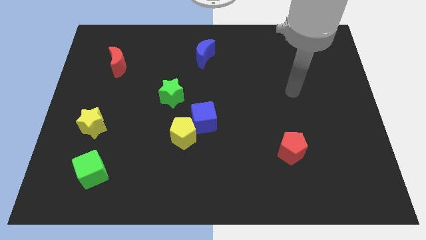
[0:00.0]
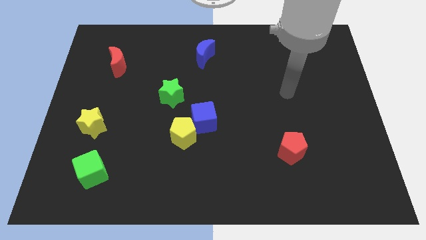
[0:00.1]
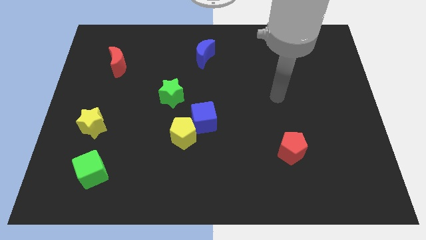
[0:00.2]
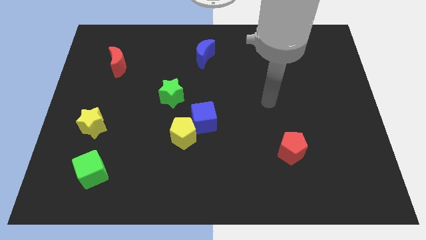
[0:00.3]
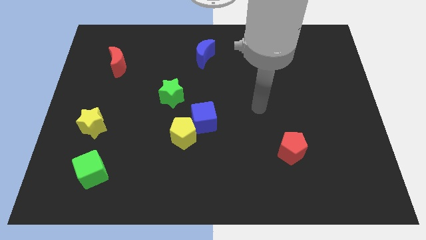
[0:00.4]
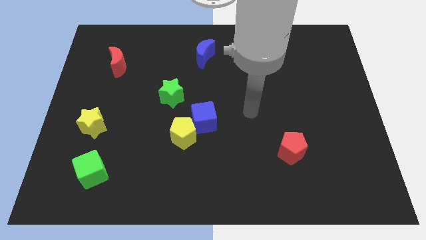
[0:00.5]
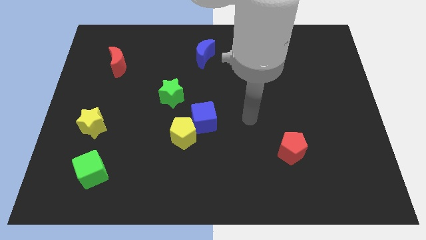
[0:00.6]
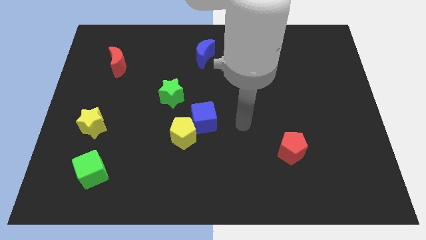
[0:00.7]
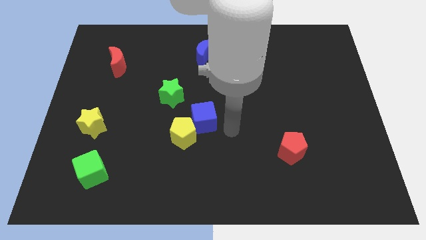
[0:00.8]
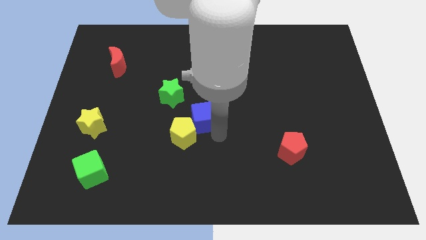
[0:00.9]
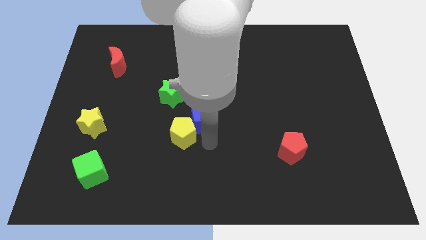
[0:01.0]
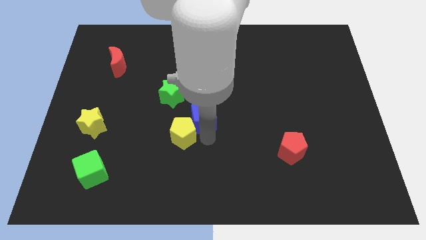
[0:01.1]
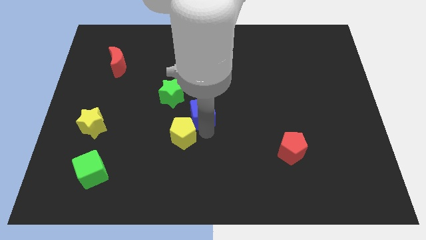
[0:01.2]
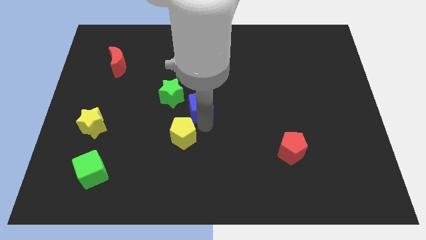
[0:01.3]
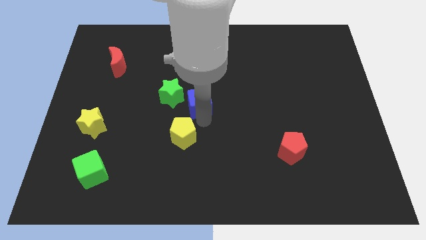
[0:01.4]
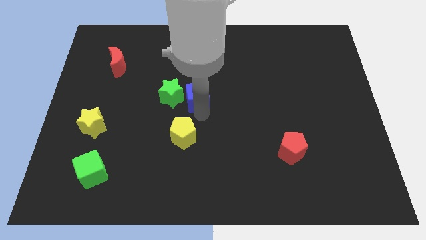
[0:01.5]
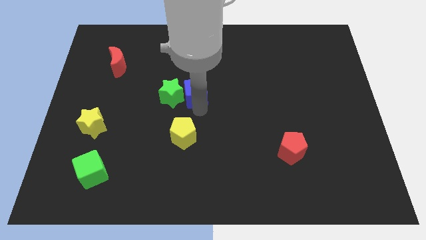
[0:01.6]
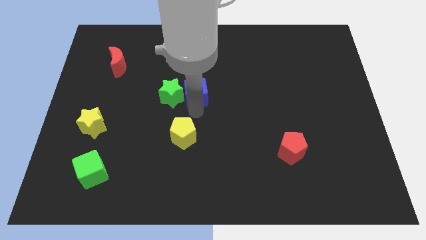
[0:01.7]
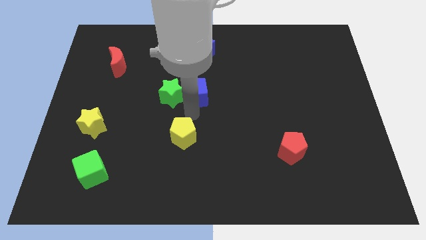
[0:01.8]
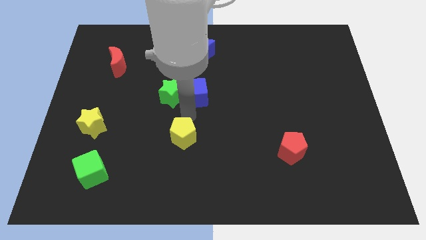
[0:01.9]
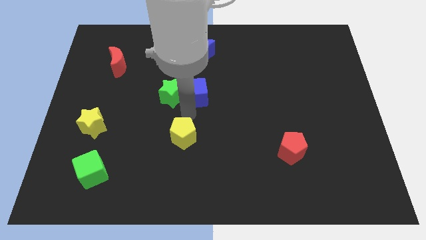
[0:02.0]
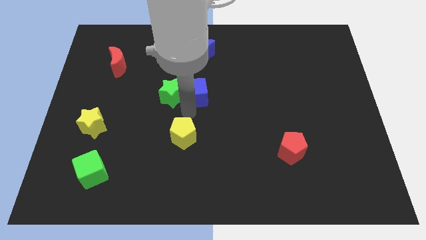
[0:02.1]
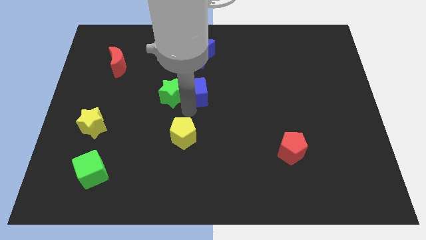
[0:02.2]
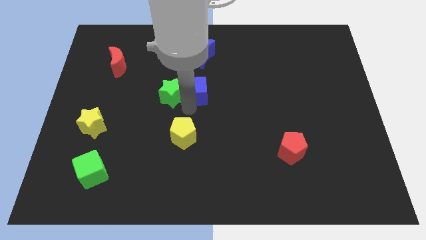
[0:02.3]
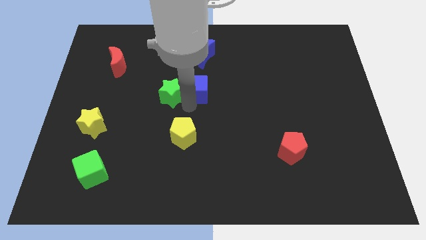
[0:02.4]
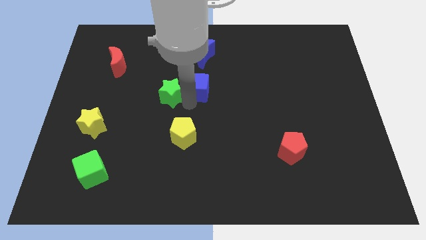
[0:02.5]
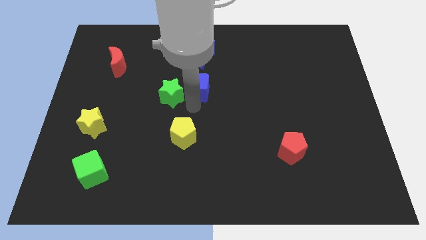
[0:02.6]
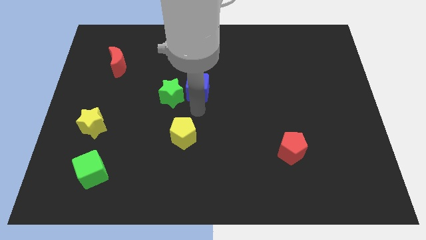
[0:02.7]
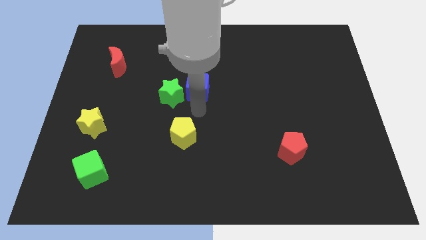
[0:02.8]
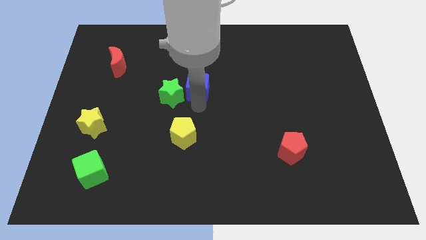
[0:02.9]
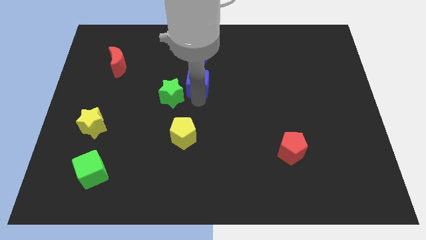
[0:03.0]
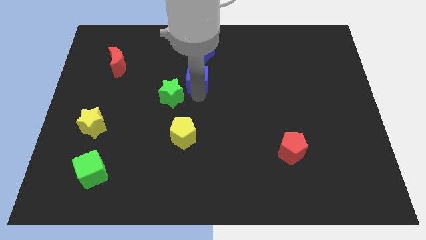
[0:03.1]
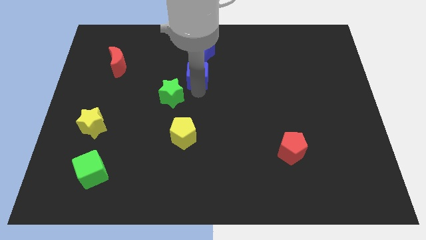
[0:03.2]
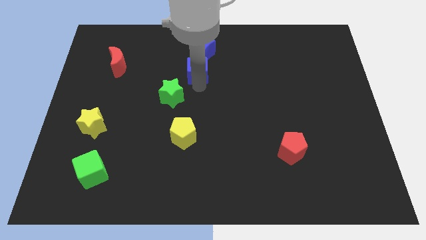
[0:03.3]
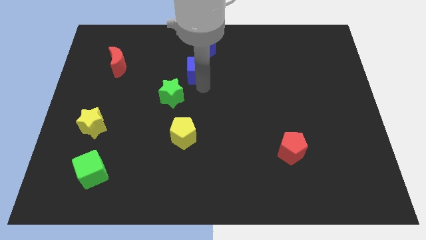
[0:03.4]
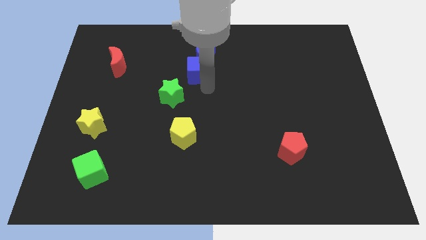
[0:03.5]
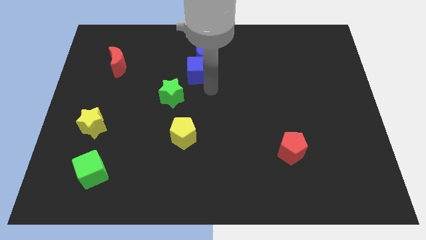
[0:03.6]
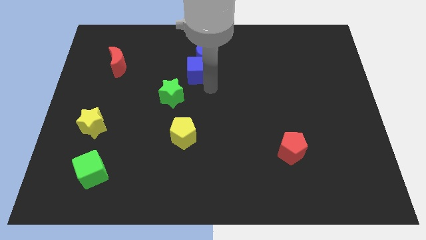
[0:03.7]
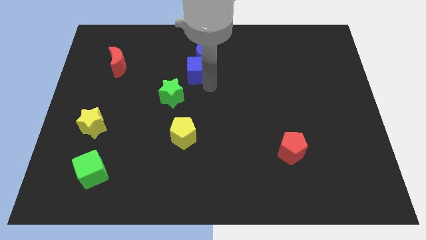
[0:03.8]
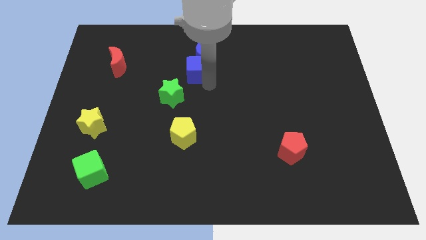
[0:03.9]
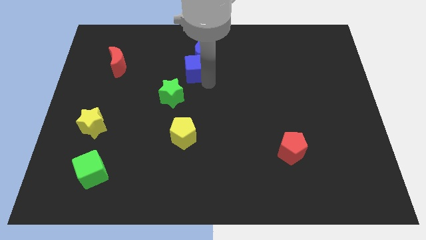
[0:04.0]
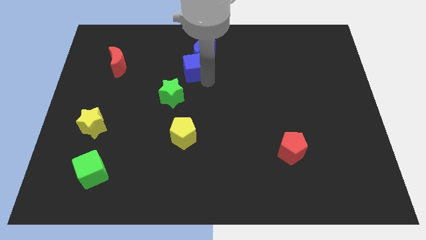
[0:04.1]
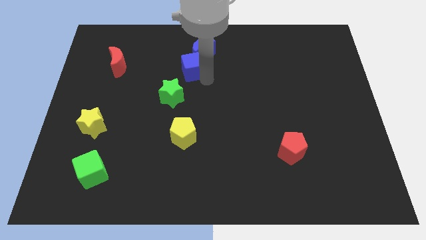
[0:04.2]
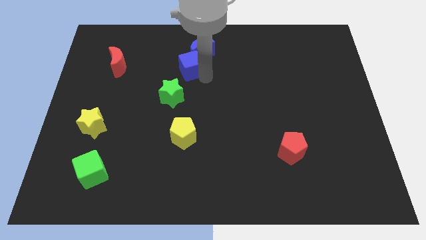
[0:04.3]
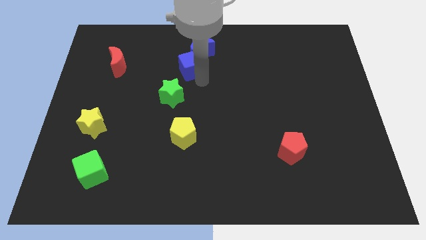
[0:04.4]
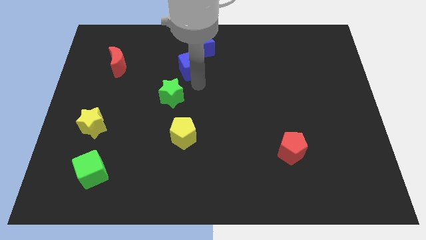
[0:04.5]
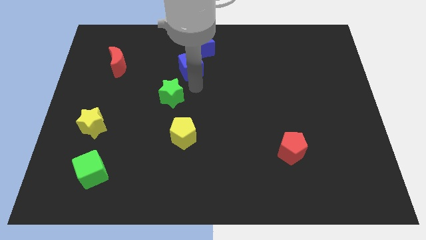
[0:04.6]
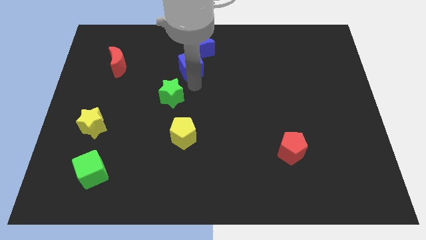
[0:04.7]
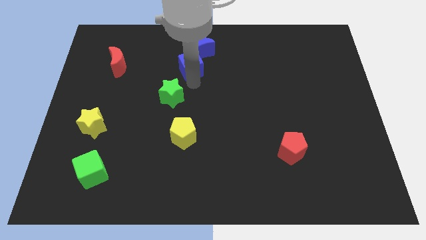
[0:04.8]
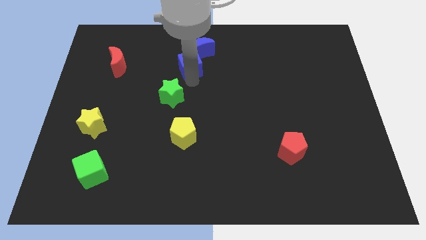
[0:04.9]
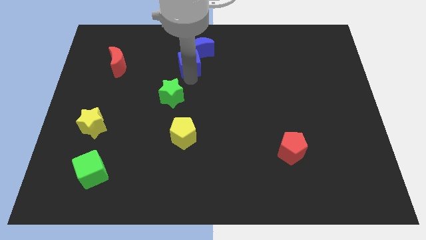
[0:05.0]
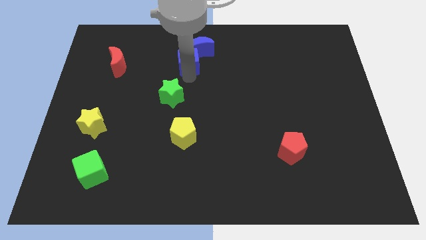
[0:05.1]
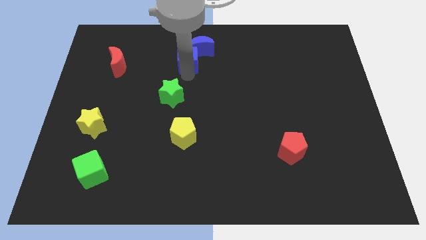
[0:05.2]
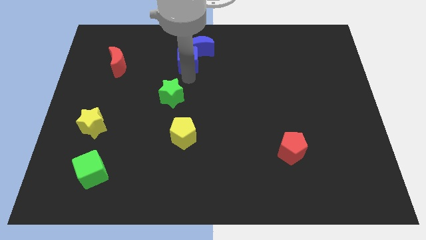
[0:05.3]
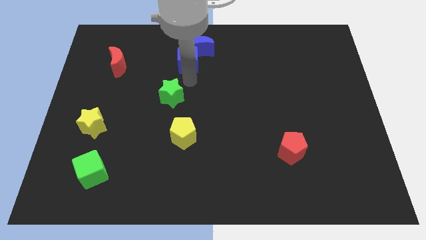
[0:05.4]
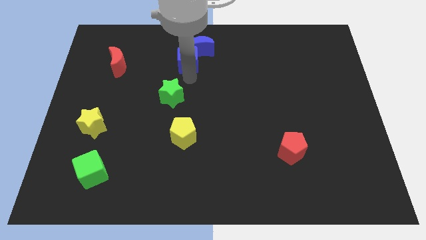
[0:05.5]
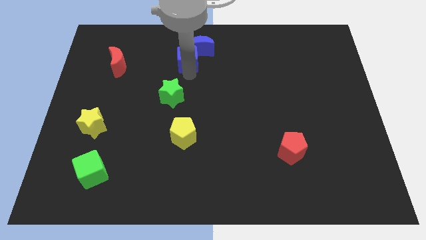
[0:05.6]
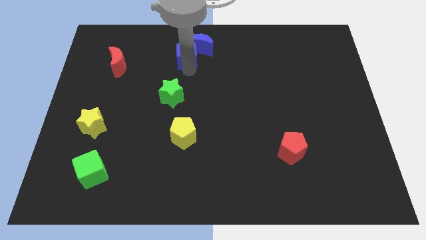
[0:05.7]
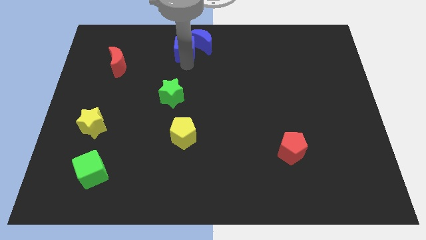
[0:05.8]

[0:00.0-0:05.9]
put the blue cube to the towards your base

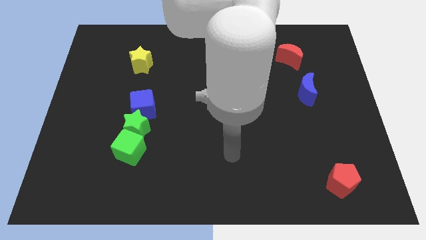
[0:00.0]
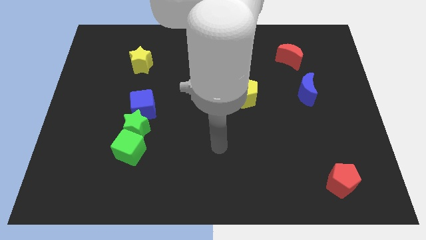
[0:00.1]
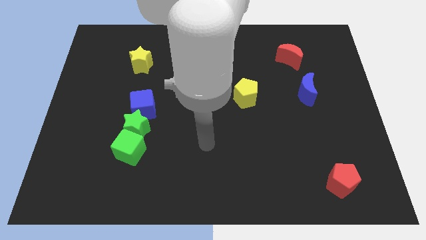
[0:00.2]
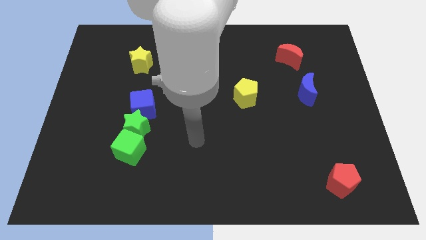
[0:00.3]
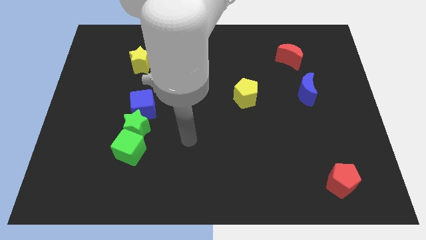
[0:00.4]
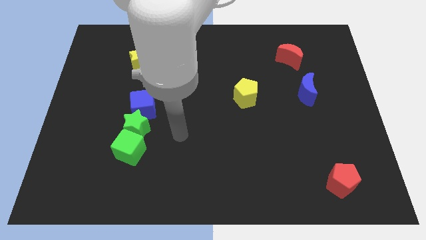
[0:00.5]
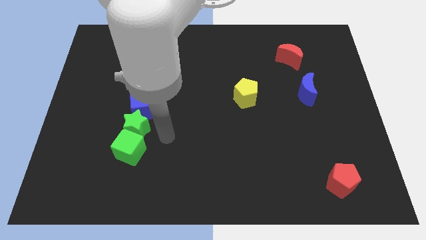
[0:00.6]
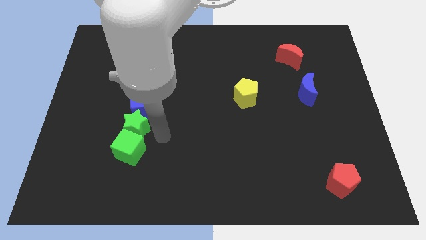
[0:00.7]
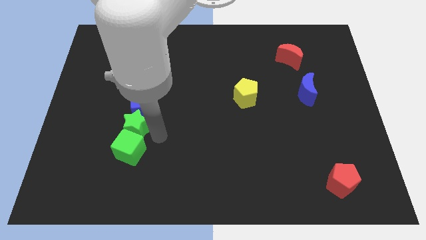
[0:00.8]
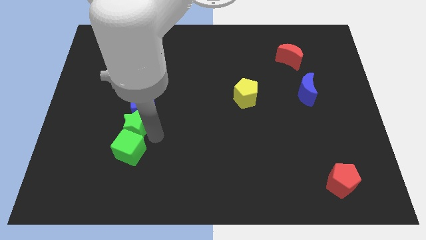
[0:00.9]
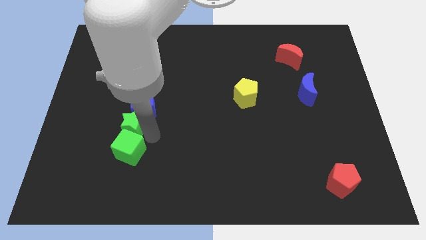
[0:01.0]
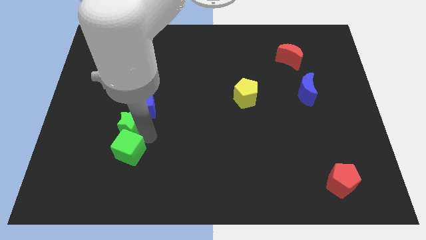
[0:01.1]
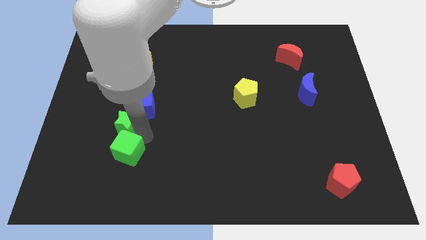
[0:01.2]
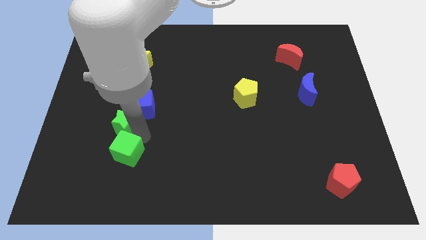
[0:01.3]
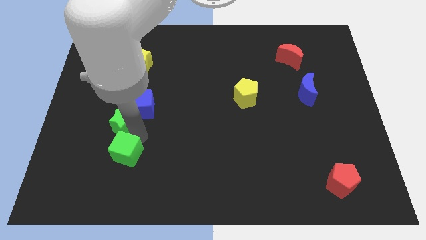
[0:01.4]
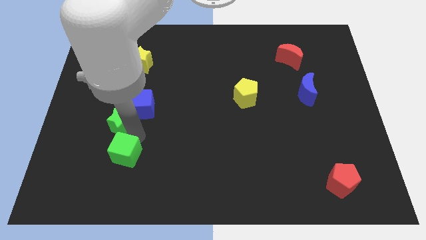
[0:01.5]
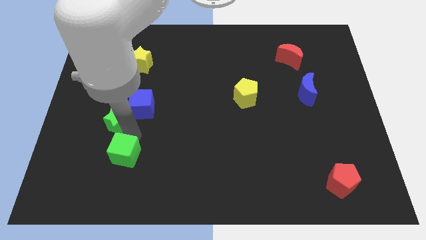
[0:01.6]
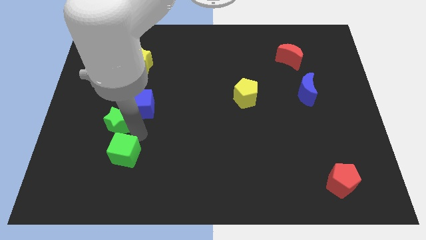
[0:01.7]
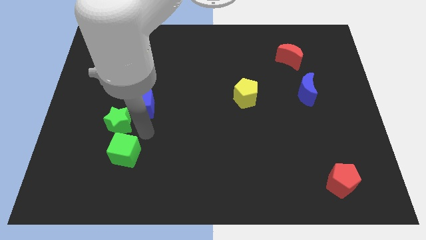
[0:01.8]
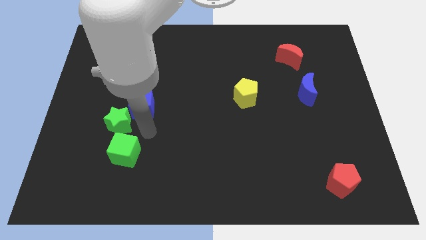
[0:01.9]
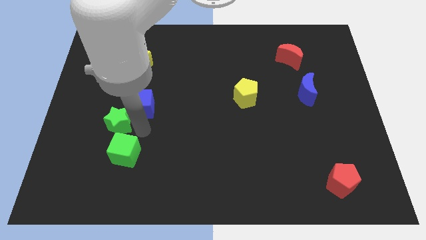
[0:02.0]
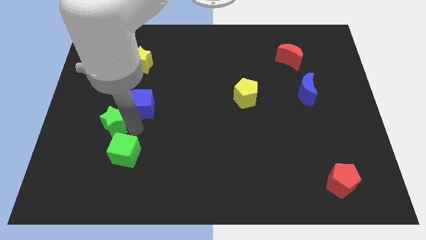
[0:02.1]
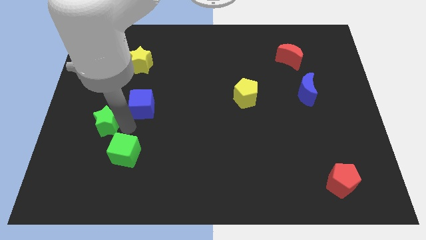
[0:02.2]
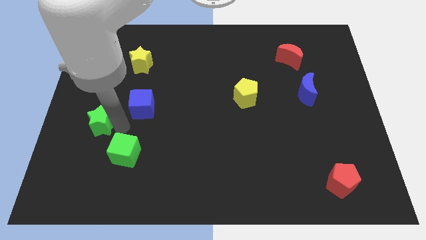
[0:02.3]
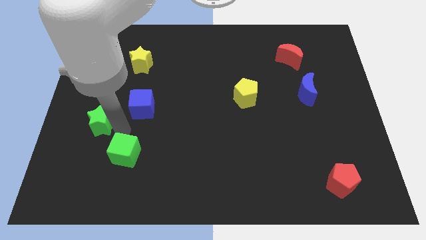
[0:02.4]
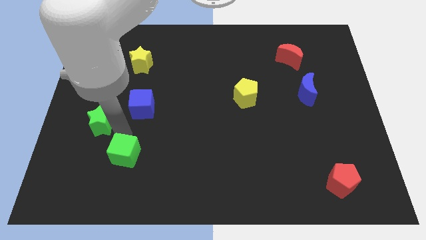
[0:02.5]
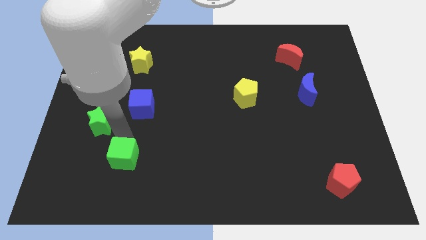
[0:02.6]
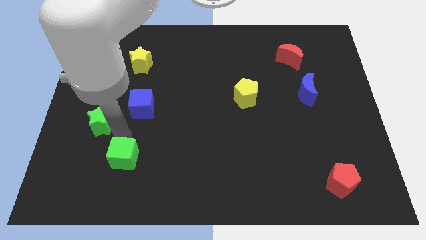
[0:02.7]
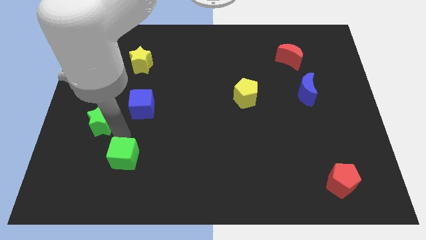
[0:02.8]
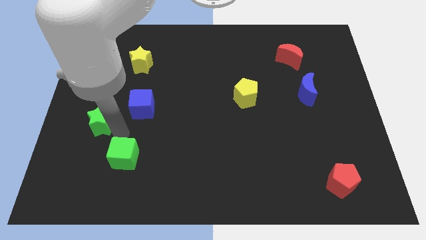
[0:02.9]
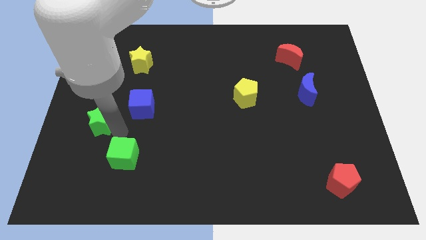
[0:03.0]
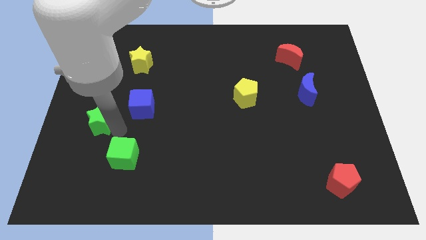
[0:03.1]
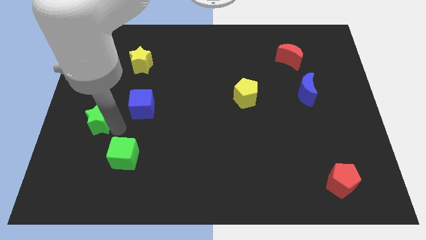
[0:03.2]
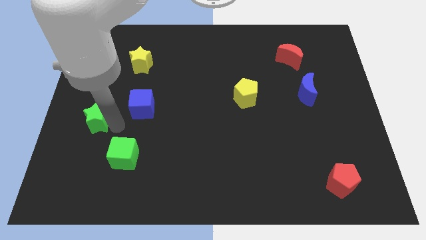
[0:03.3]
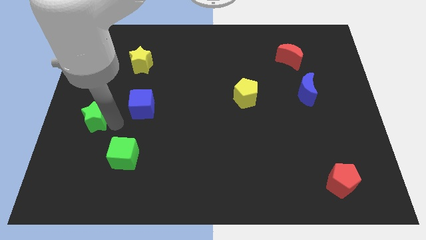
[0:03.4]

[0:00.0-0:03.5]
put the green star to the left side
